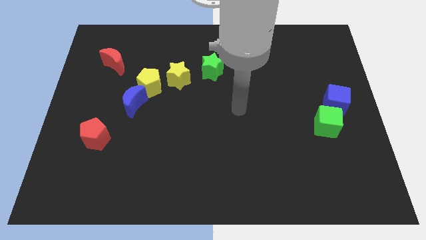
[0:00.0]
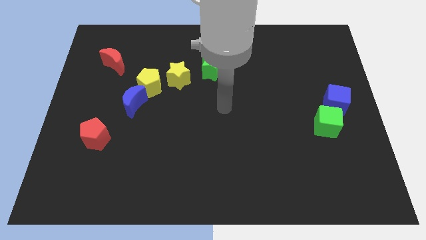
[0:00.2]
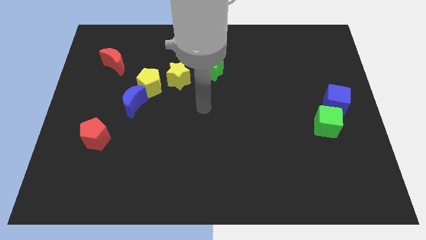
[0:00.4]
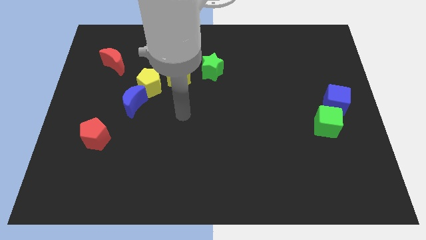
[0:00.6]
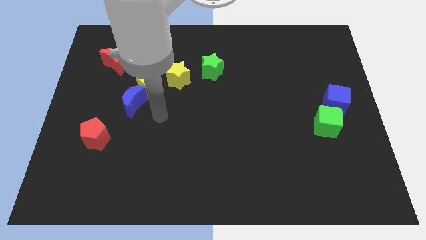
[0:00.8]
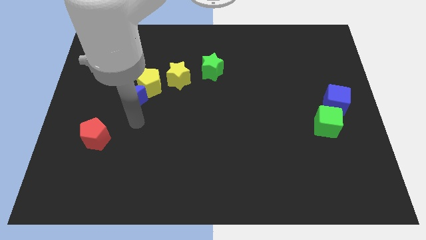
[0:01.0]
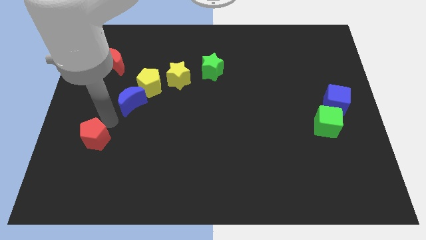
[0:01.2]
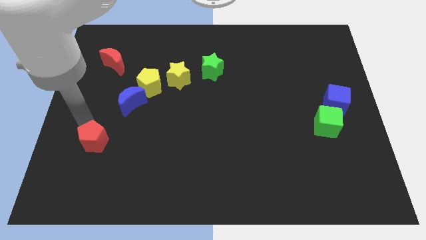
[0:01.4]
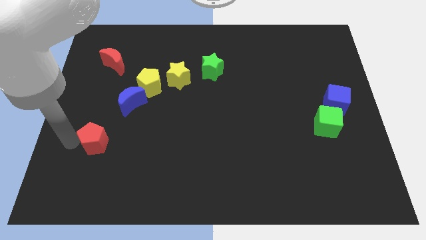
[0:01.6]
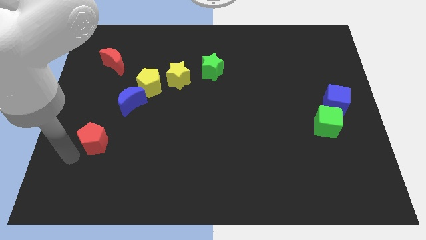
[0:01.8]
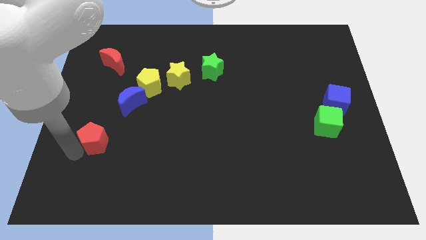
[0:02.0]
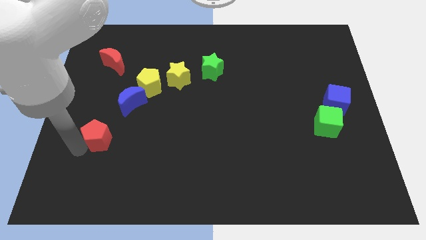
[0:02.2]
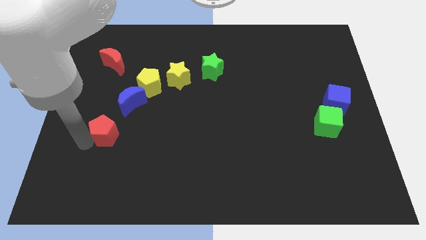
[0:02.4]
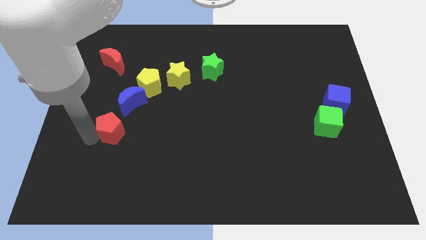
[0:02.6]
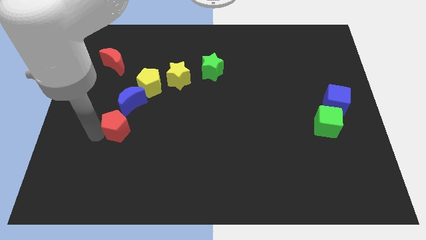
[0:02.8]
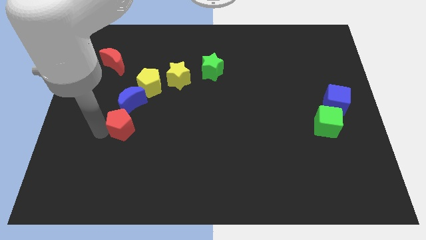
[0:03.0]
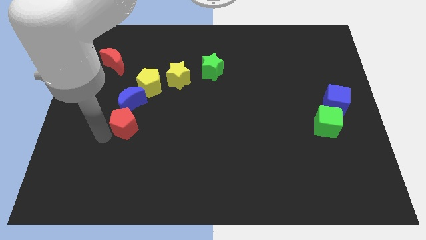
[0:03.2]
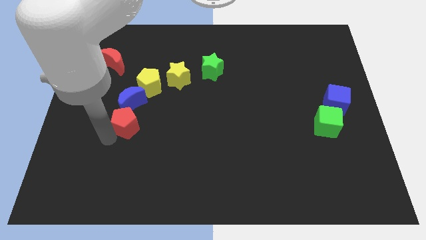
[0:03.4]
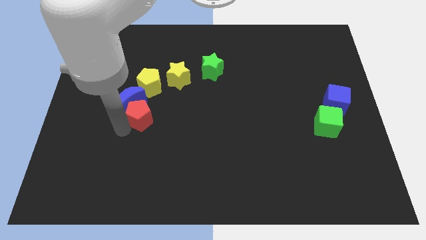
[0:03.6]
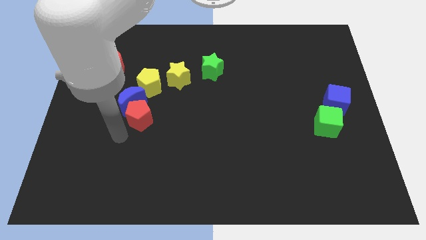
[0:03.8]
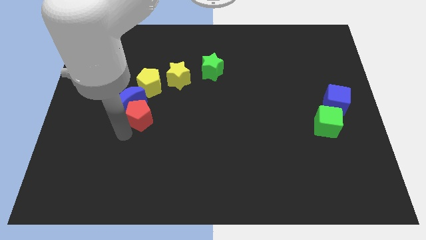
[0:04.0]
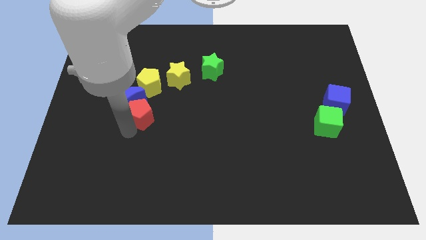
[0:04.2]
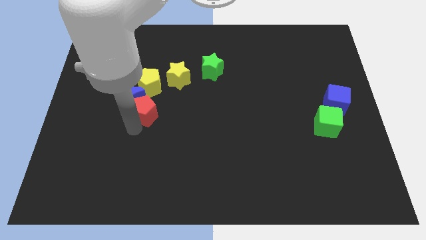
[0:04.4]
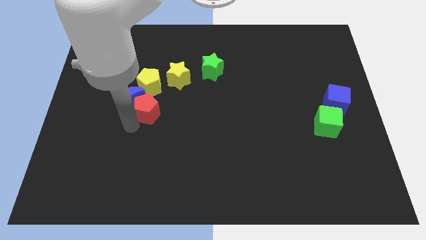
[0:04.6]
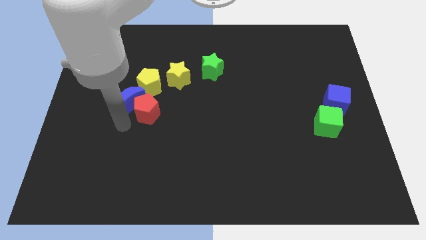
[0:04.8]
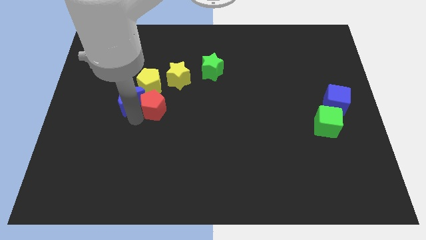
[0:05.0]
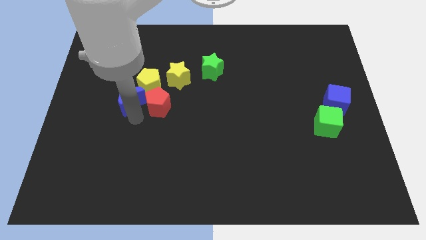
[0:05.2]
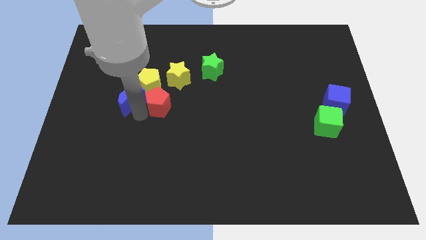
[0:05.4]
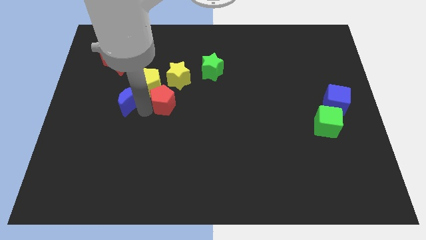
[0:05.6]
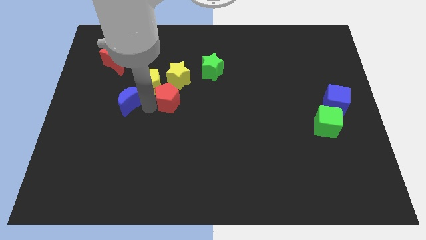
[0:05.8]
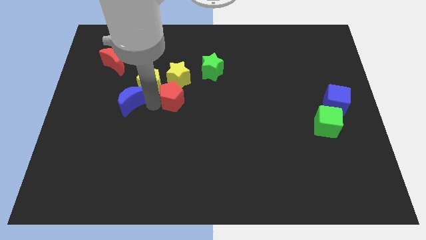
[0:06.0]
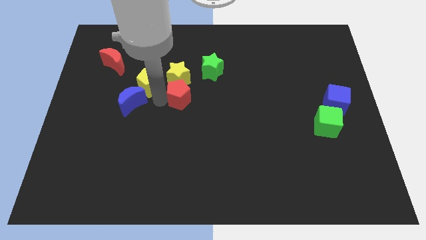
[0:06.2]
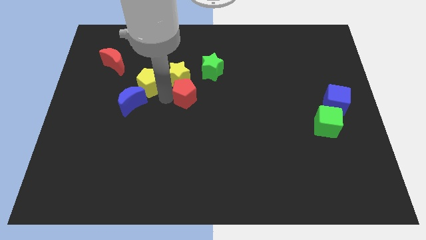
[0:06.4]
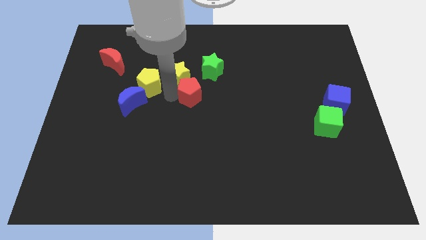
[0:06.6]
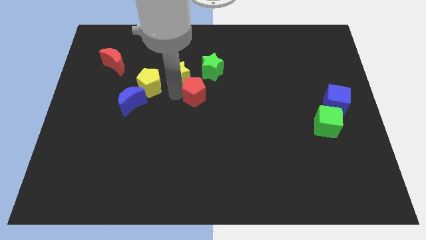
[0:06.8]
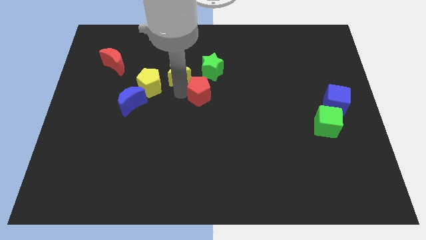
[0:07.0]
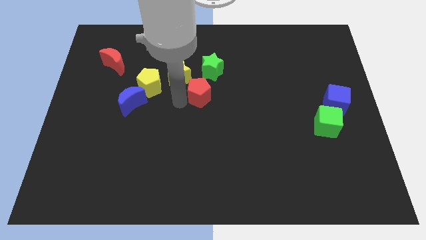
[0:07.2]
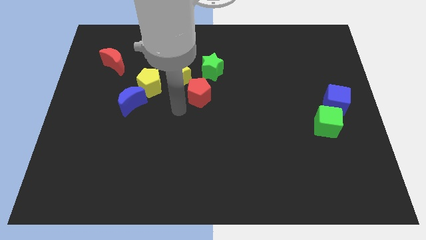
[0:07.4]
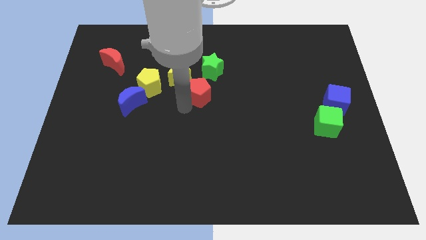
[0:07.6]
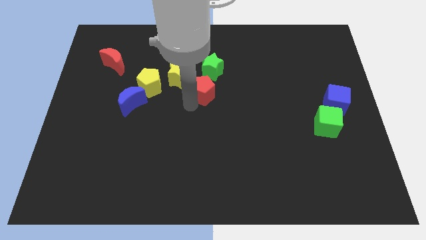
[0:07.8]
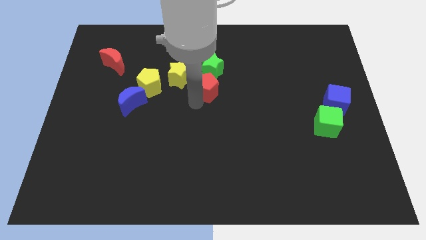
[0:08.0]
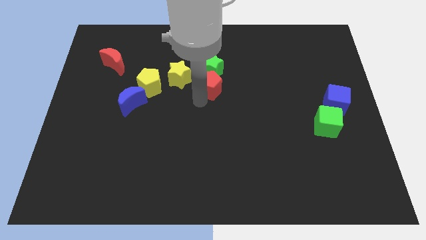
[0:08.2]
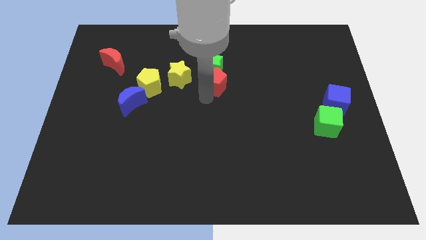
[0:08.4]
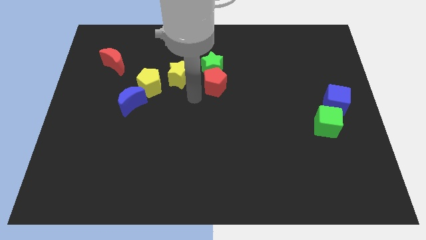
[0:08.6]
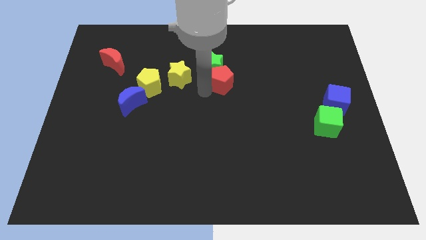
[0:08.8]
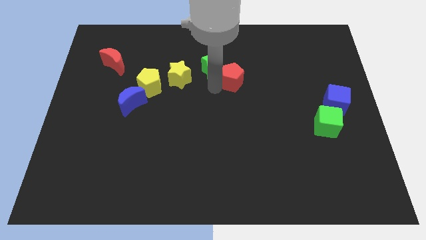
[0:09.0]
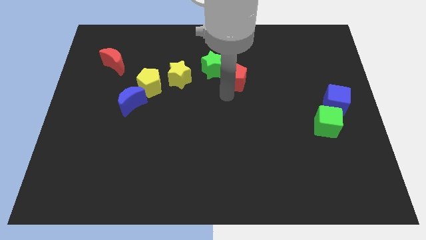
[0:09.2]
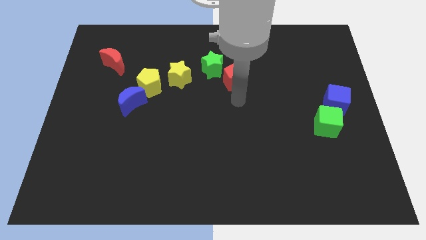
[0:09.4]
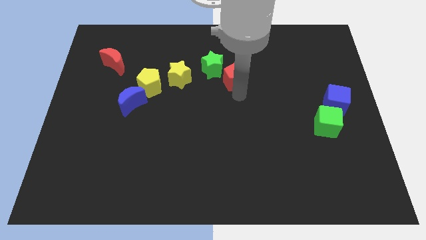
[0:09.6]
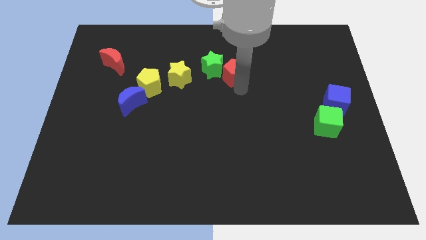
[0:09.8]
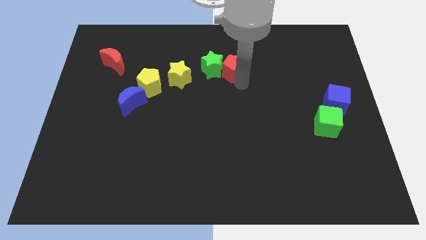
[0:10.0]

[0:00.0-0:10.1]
move the red pentagon to the top right of the green star

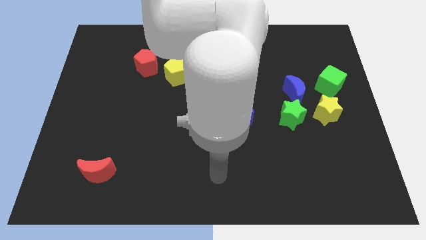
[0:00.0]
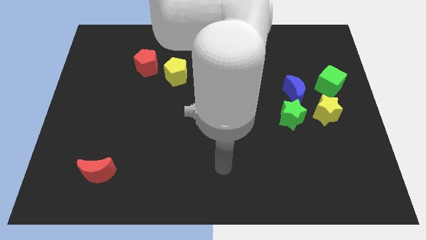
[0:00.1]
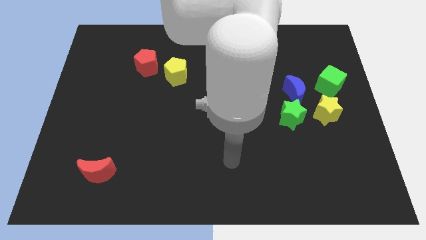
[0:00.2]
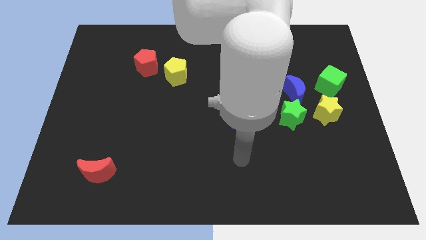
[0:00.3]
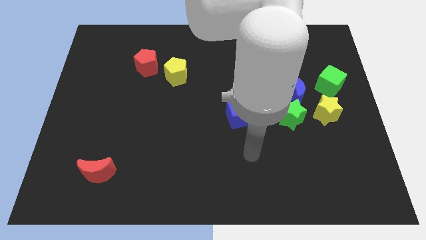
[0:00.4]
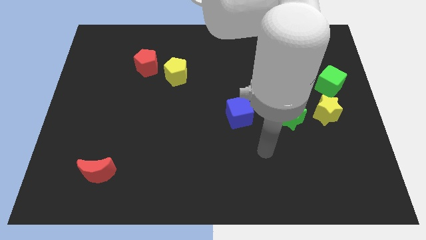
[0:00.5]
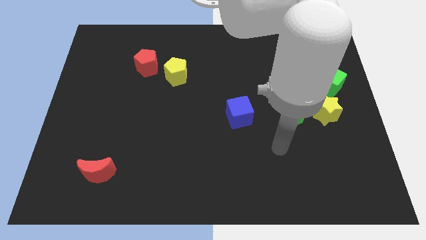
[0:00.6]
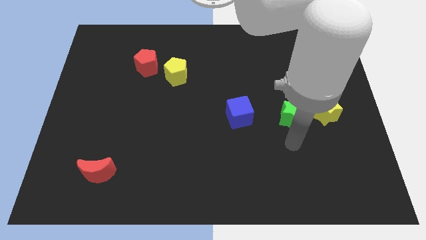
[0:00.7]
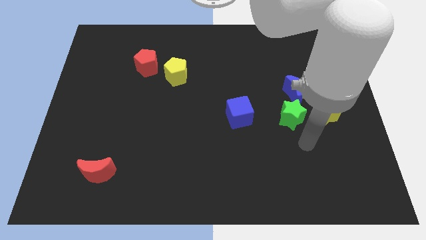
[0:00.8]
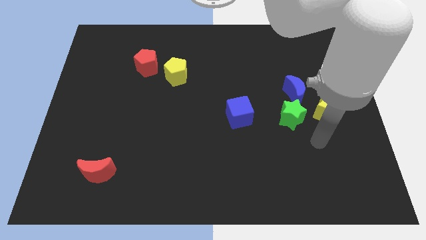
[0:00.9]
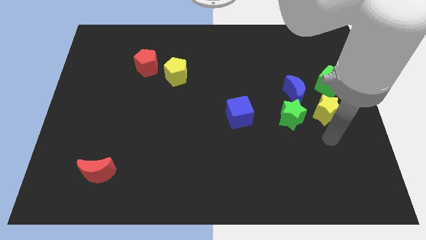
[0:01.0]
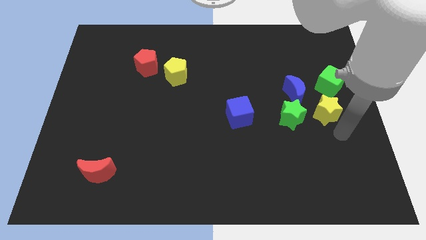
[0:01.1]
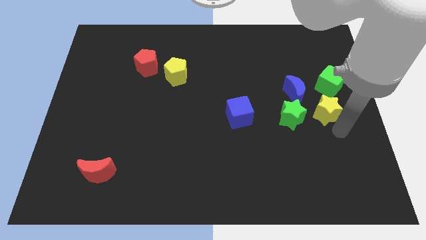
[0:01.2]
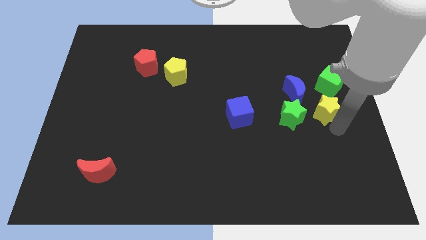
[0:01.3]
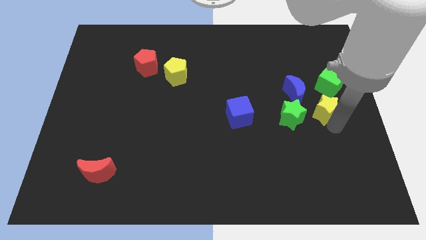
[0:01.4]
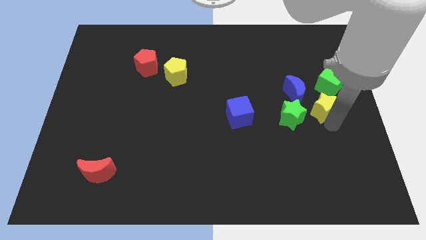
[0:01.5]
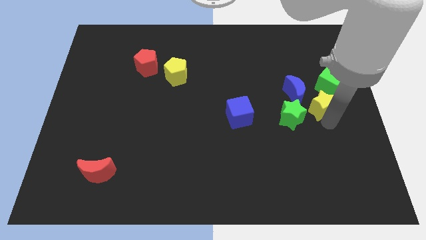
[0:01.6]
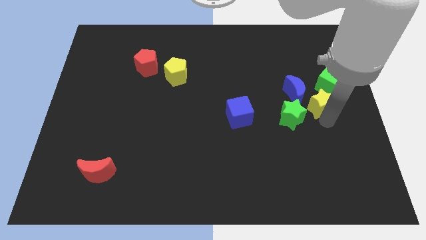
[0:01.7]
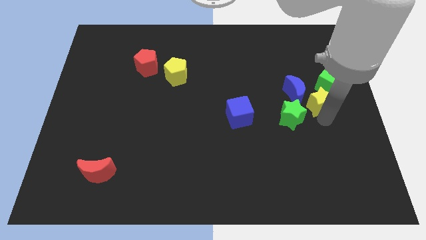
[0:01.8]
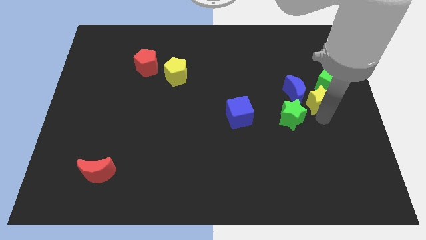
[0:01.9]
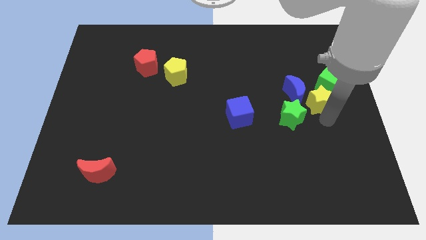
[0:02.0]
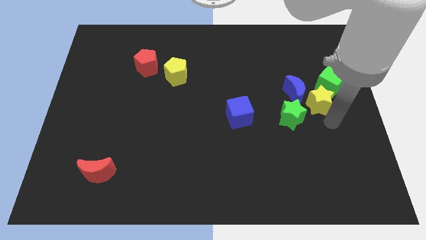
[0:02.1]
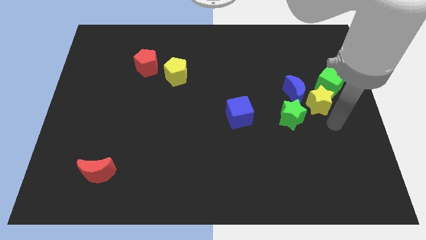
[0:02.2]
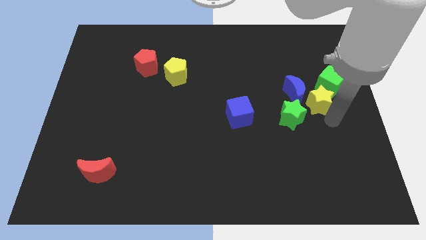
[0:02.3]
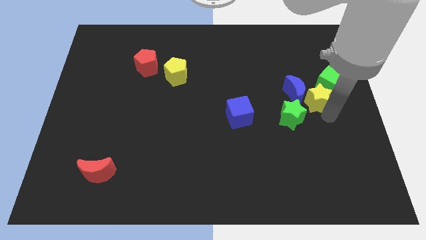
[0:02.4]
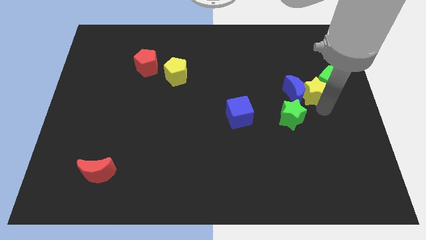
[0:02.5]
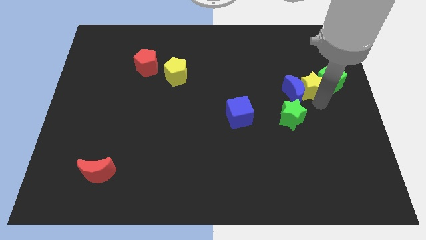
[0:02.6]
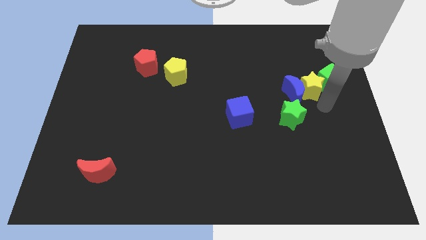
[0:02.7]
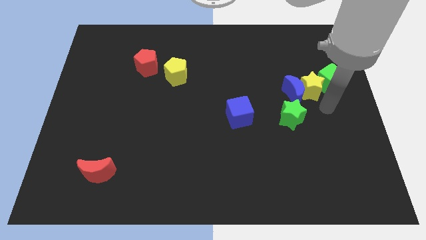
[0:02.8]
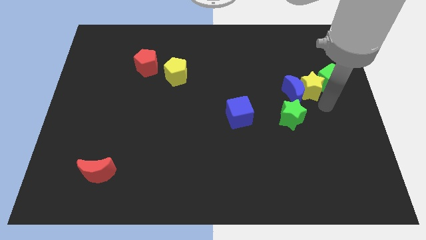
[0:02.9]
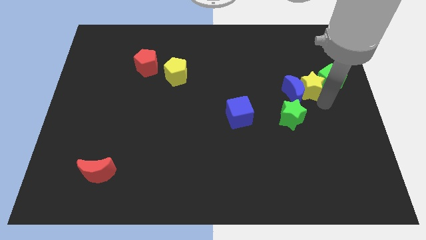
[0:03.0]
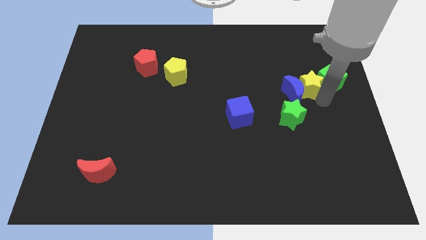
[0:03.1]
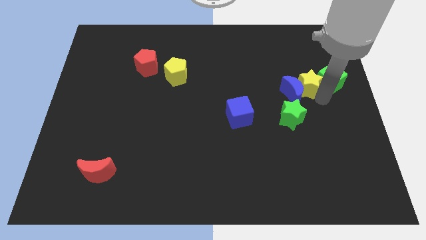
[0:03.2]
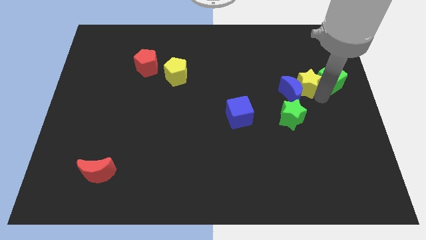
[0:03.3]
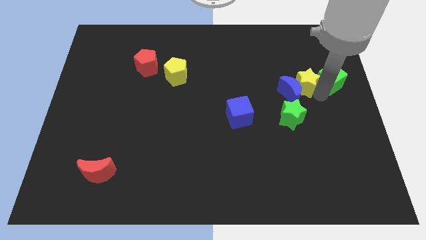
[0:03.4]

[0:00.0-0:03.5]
move the yellow star to the top side of the blue moon
